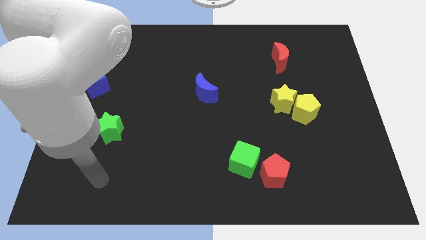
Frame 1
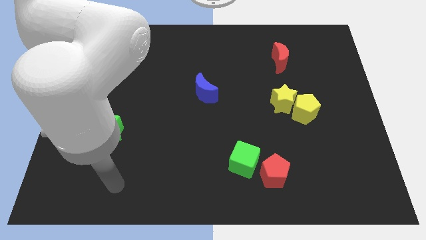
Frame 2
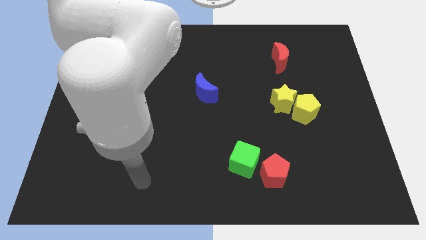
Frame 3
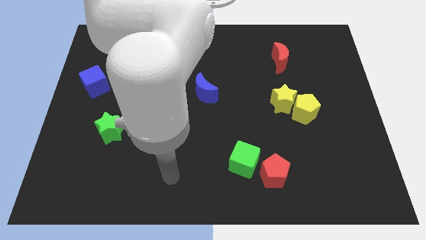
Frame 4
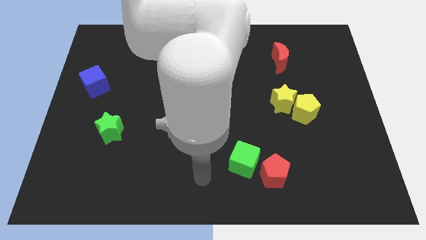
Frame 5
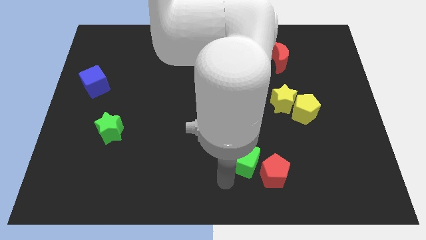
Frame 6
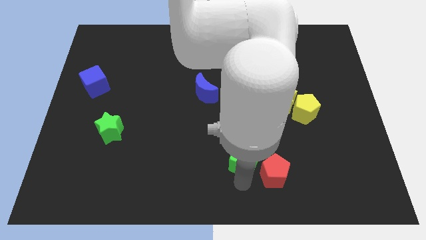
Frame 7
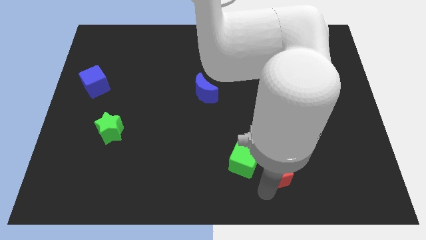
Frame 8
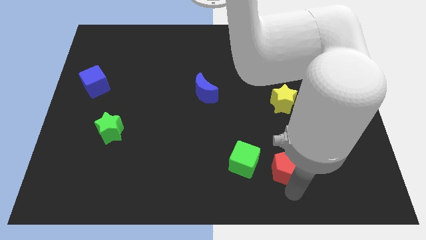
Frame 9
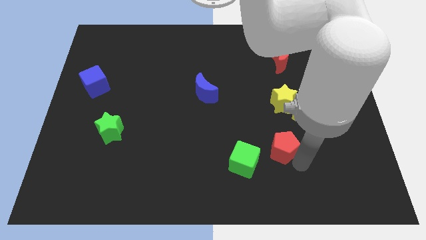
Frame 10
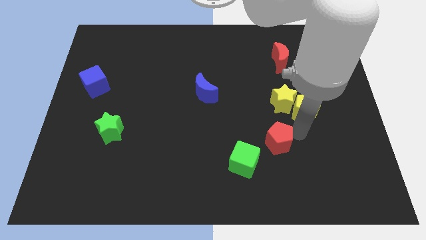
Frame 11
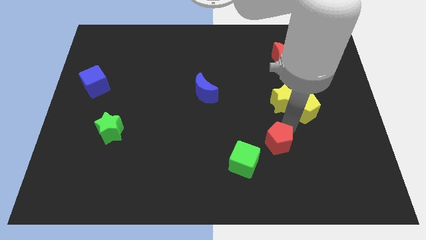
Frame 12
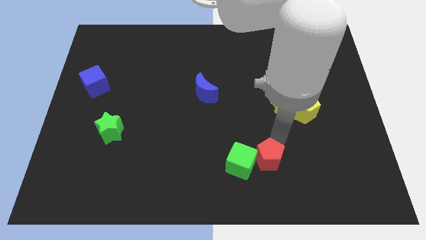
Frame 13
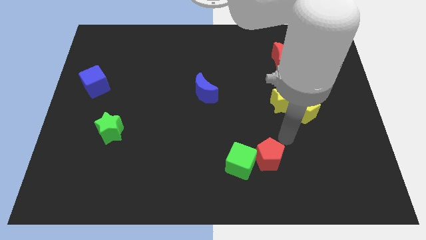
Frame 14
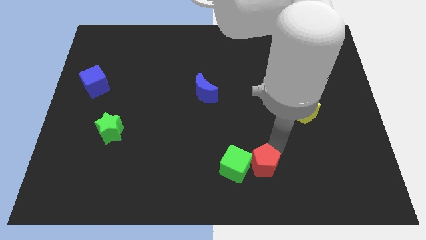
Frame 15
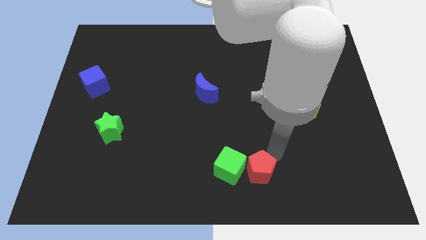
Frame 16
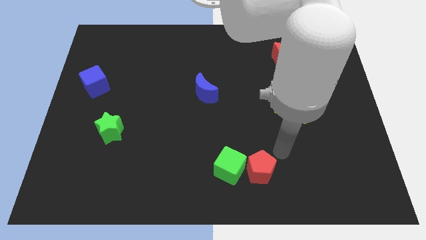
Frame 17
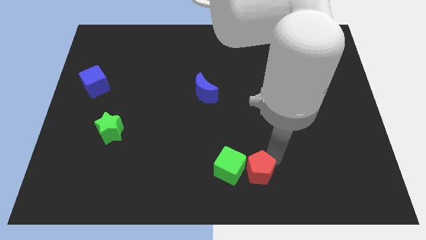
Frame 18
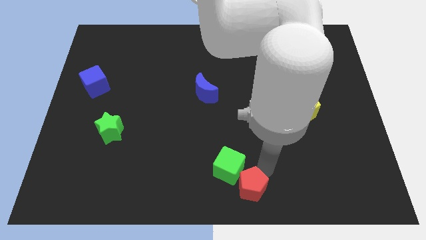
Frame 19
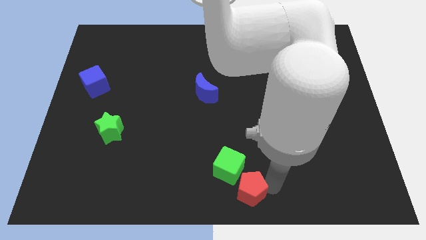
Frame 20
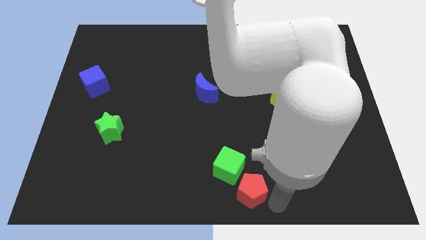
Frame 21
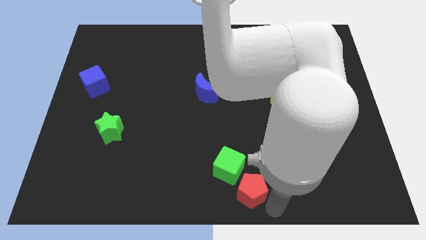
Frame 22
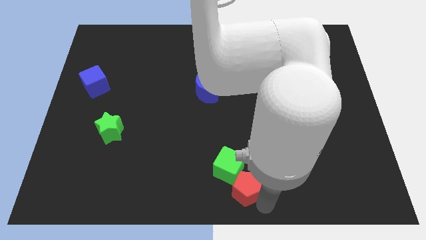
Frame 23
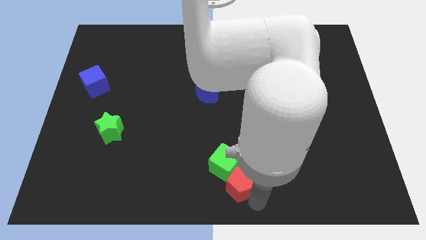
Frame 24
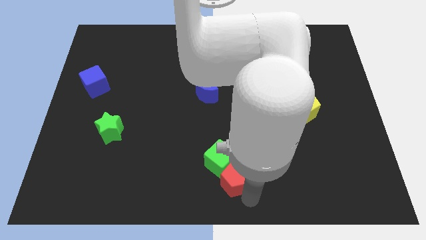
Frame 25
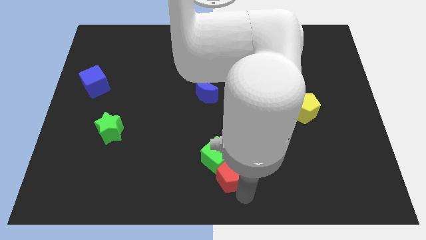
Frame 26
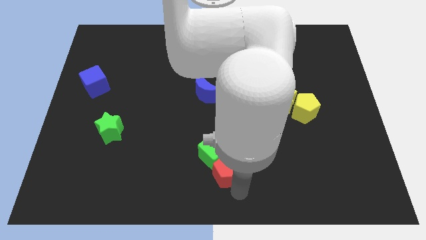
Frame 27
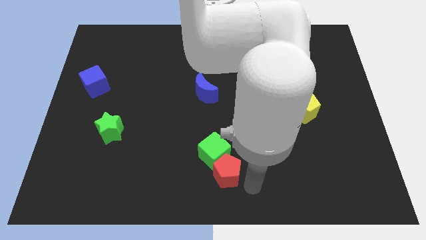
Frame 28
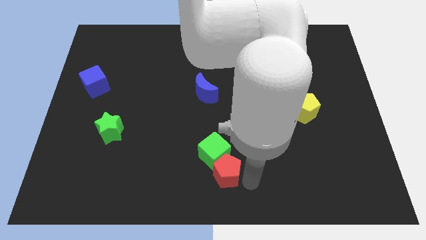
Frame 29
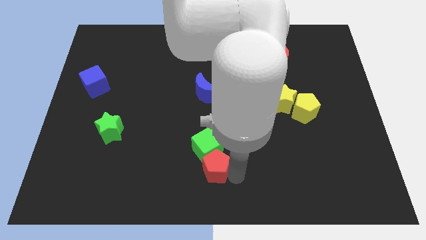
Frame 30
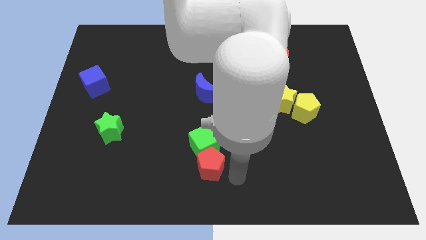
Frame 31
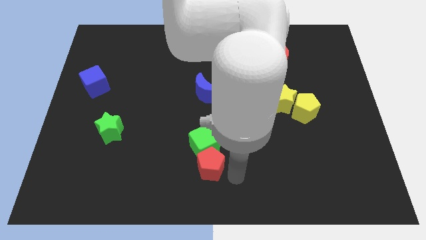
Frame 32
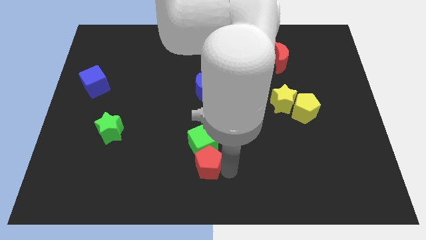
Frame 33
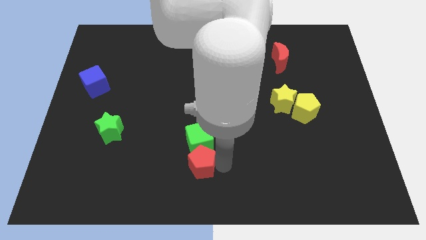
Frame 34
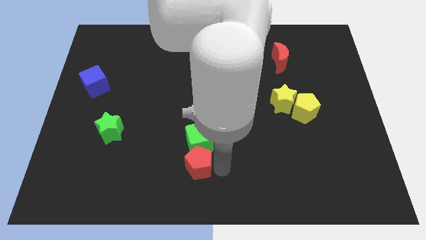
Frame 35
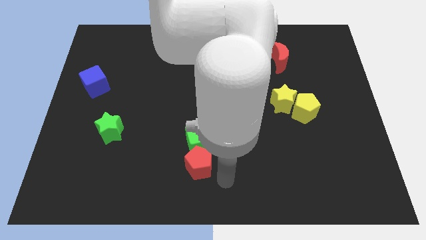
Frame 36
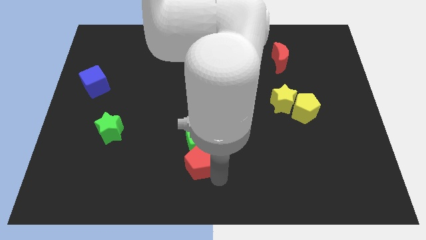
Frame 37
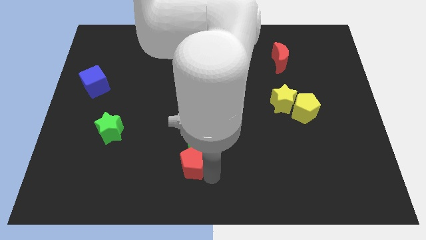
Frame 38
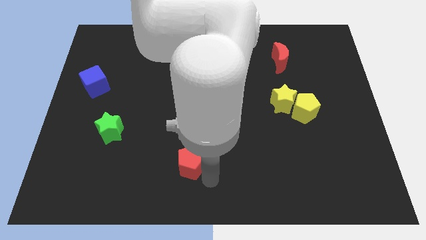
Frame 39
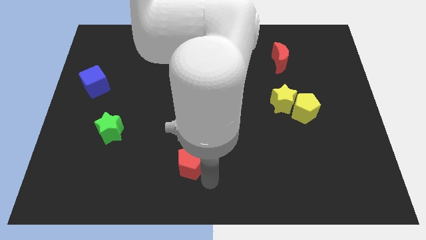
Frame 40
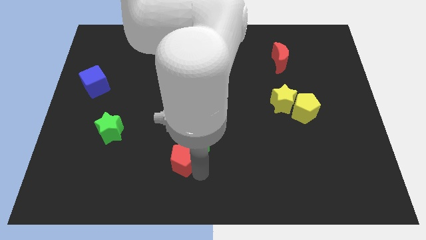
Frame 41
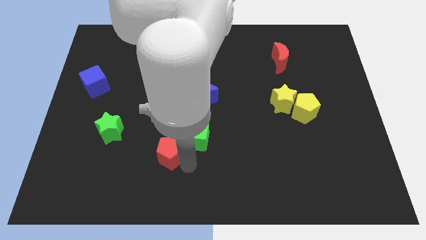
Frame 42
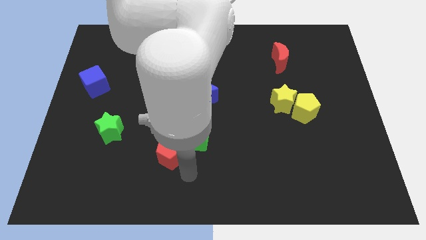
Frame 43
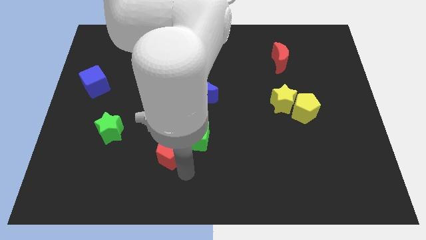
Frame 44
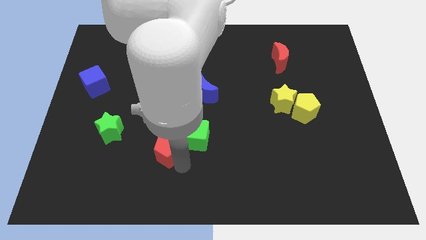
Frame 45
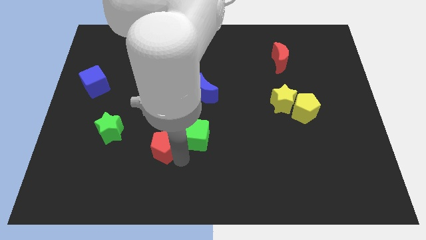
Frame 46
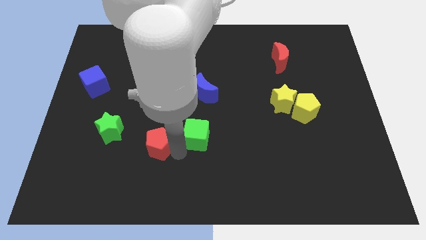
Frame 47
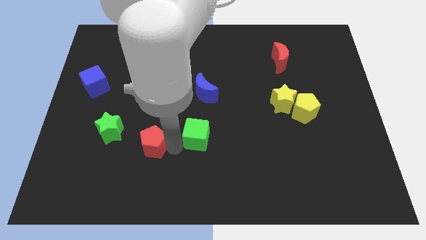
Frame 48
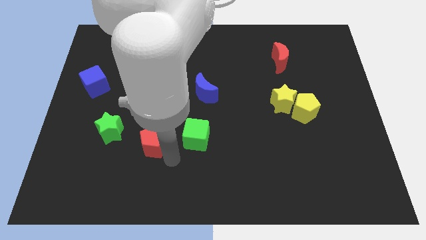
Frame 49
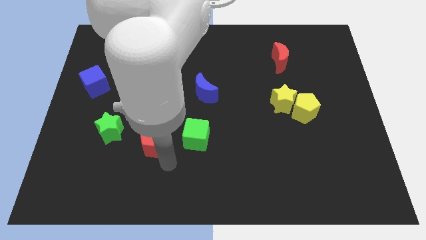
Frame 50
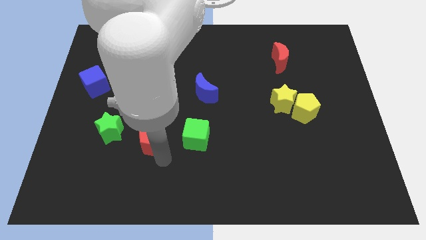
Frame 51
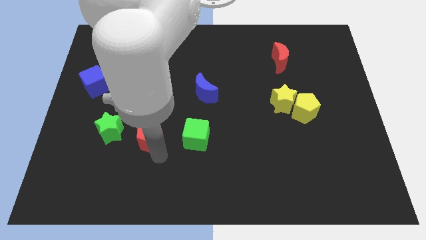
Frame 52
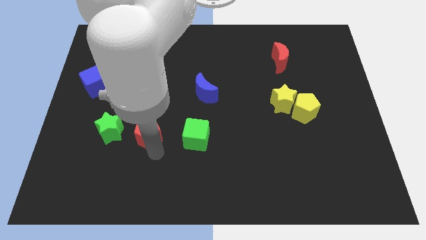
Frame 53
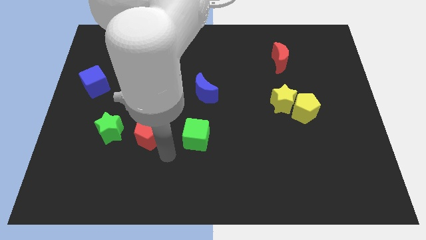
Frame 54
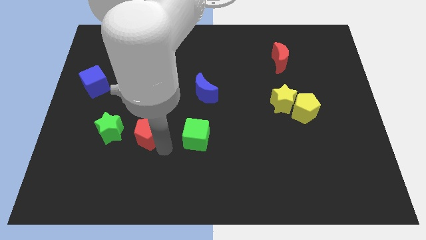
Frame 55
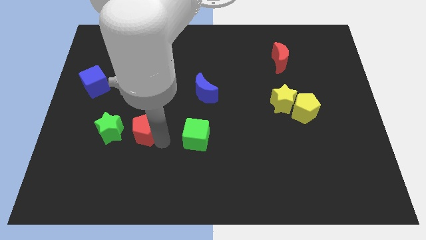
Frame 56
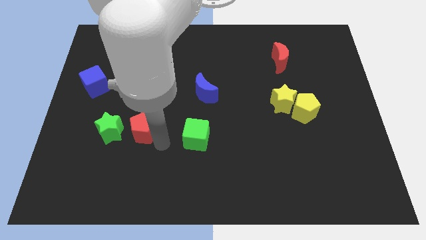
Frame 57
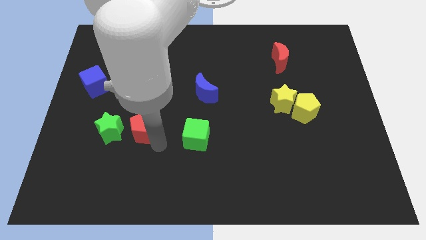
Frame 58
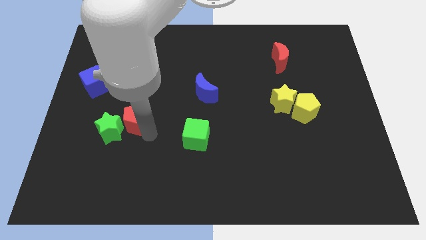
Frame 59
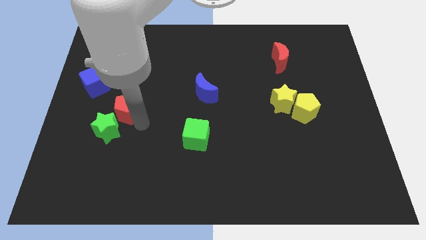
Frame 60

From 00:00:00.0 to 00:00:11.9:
push the red pentagon to the bottom right side of the blue cube
